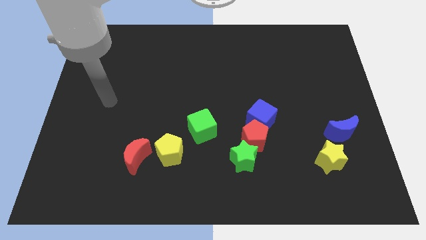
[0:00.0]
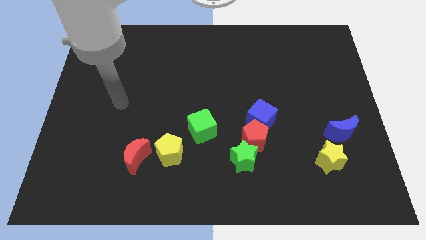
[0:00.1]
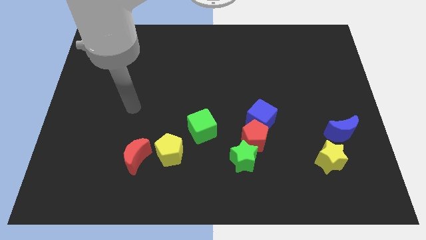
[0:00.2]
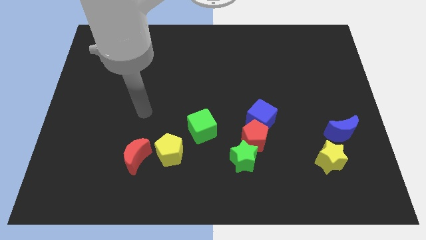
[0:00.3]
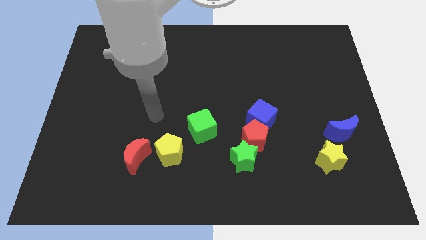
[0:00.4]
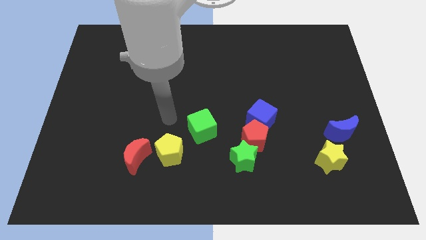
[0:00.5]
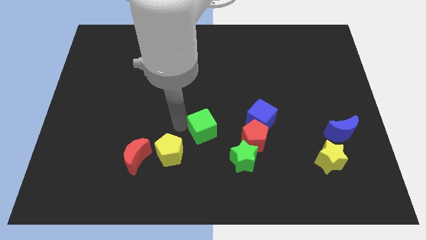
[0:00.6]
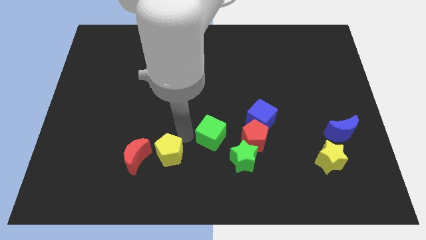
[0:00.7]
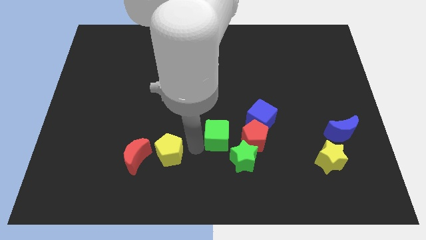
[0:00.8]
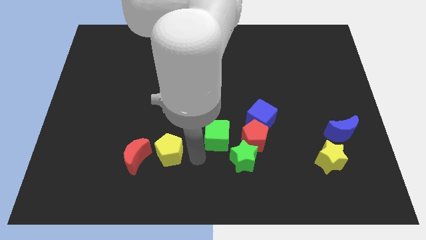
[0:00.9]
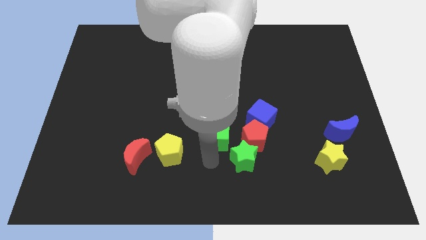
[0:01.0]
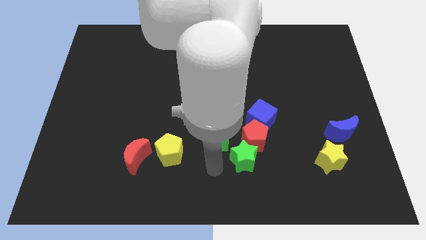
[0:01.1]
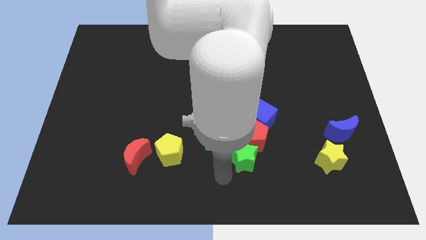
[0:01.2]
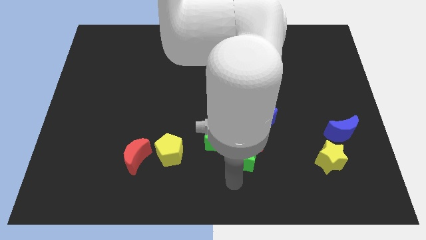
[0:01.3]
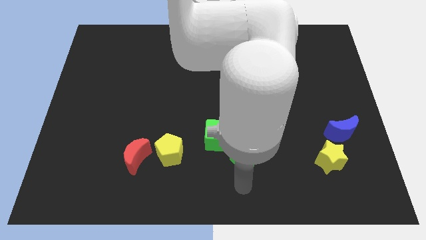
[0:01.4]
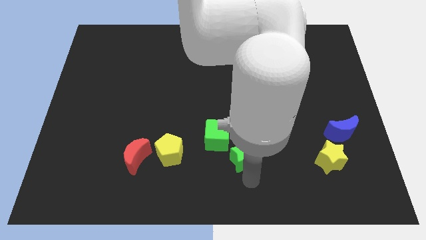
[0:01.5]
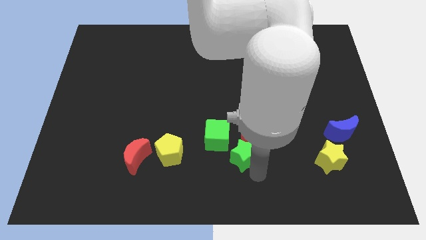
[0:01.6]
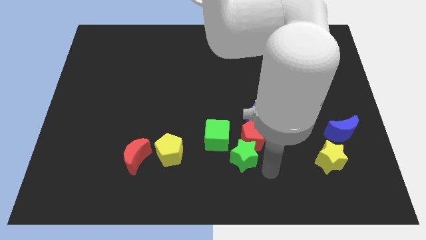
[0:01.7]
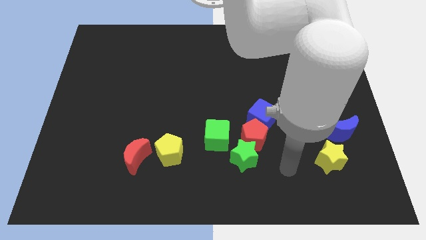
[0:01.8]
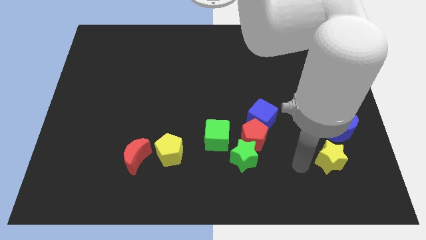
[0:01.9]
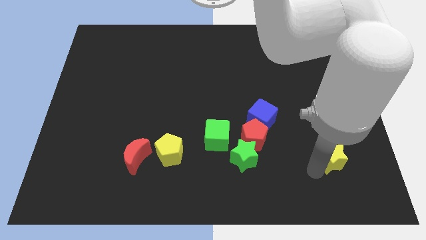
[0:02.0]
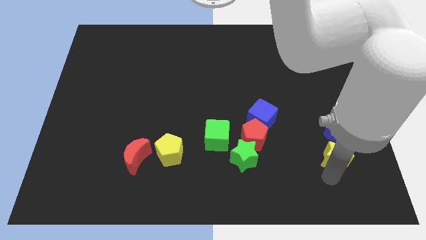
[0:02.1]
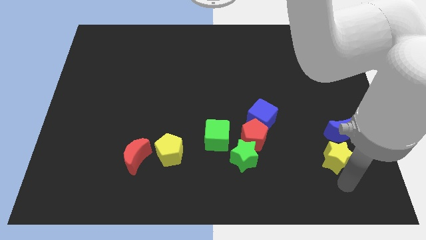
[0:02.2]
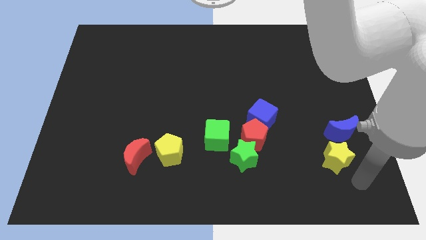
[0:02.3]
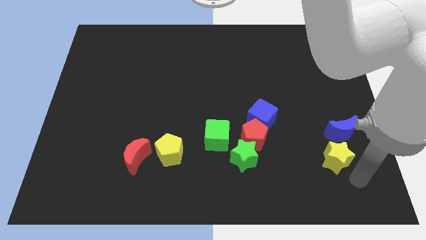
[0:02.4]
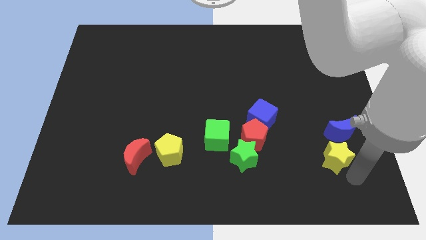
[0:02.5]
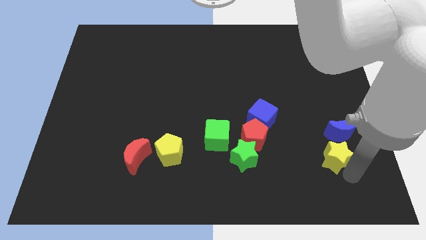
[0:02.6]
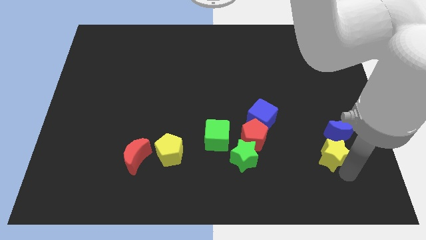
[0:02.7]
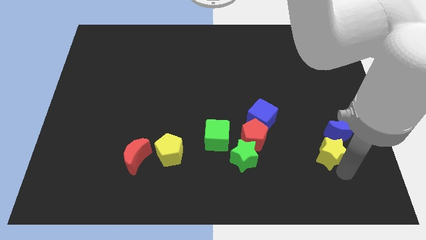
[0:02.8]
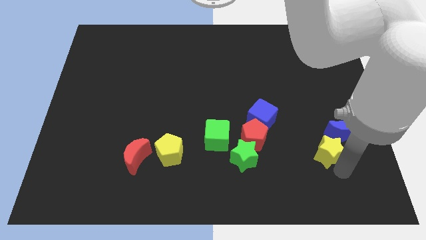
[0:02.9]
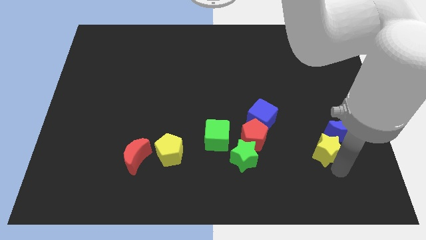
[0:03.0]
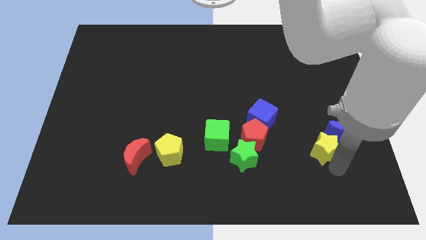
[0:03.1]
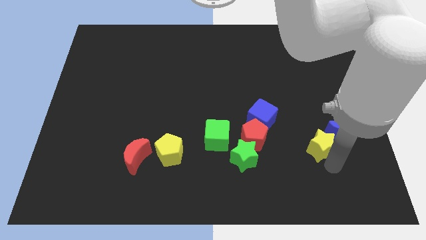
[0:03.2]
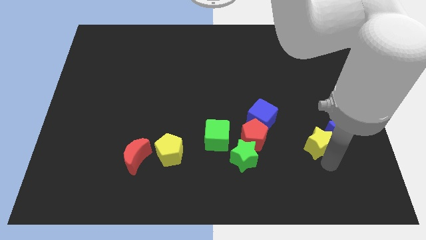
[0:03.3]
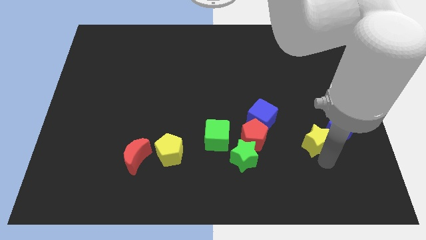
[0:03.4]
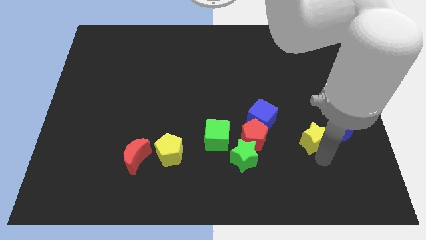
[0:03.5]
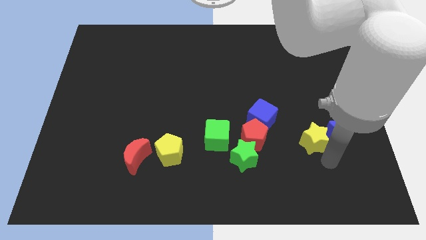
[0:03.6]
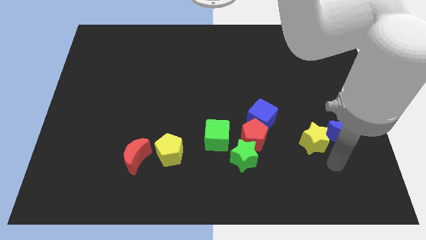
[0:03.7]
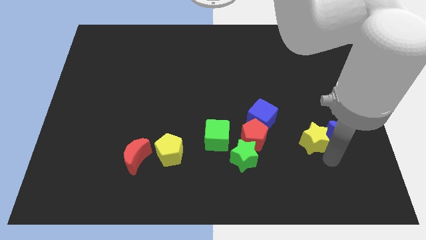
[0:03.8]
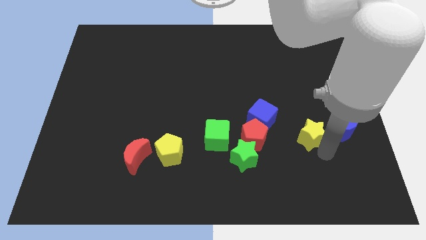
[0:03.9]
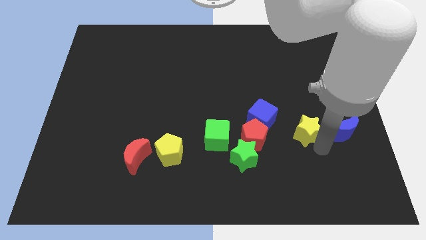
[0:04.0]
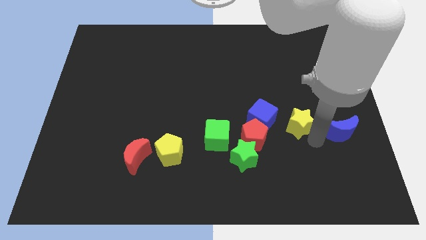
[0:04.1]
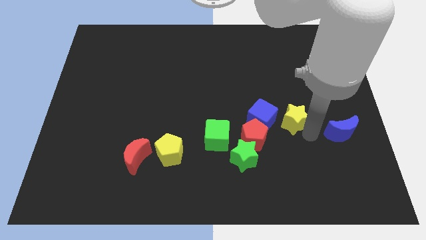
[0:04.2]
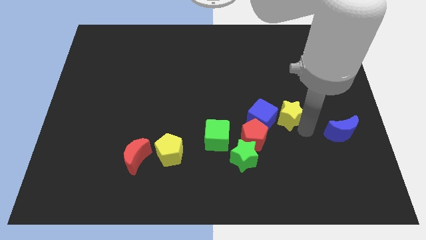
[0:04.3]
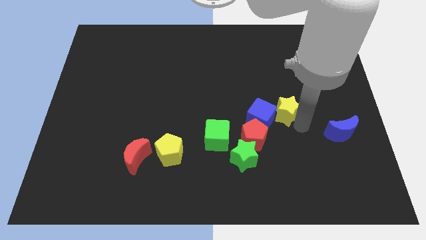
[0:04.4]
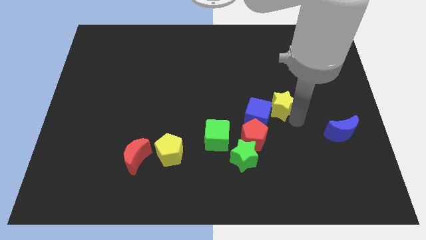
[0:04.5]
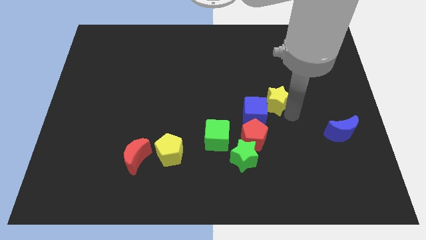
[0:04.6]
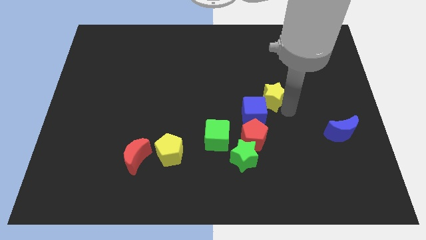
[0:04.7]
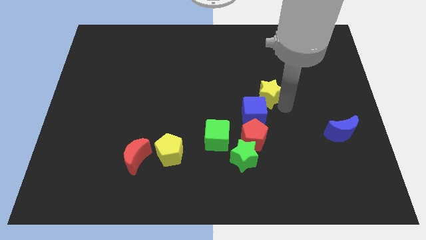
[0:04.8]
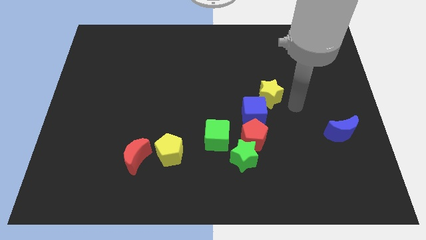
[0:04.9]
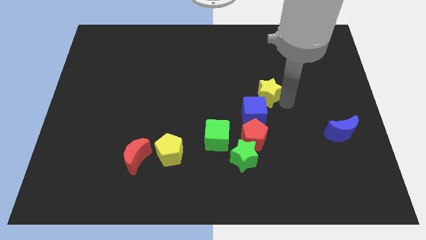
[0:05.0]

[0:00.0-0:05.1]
move the yellow star diagonally upwards and to the left

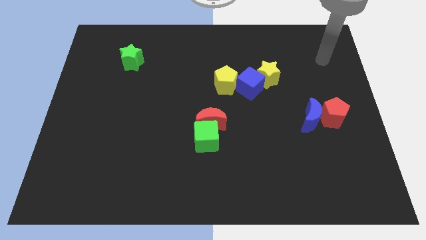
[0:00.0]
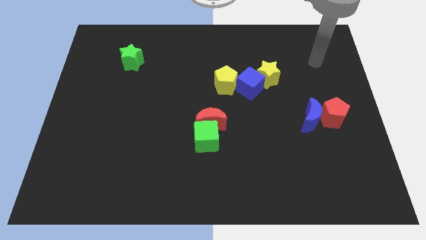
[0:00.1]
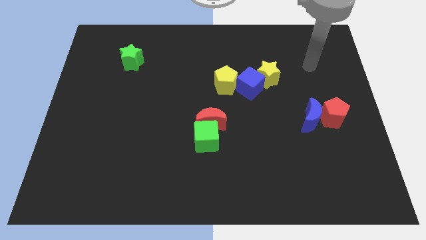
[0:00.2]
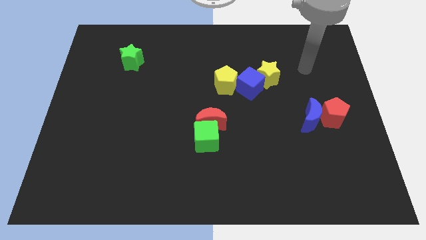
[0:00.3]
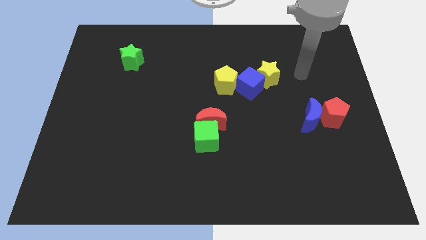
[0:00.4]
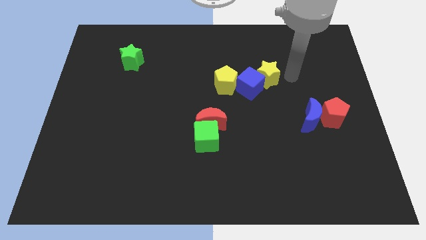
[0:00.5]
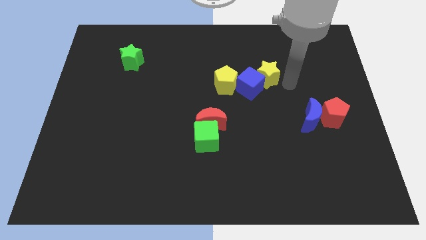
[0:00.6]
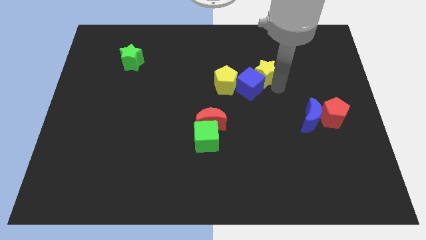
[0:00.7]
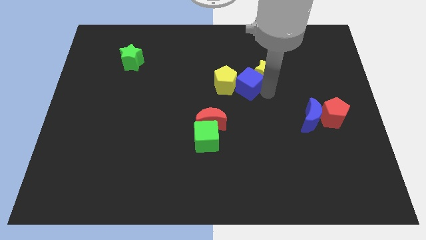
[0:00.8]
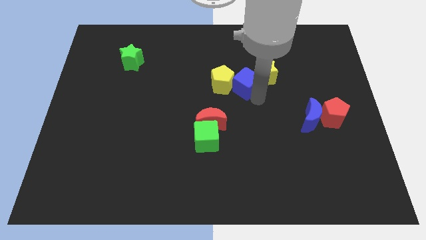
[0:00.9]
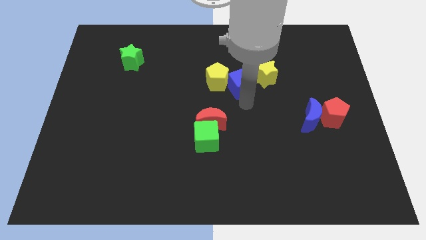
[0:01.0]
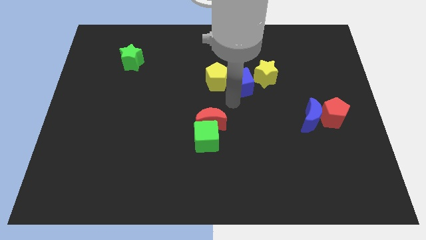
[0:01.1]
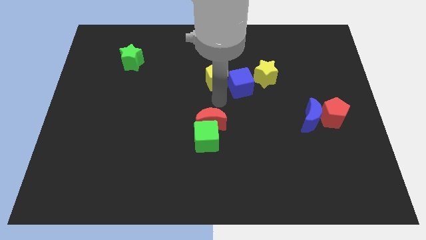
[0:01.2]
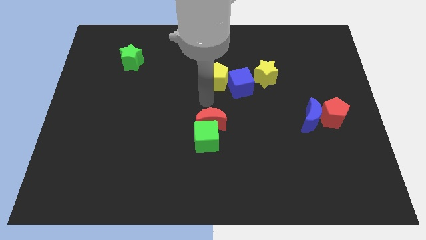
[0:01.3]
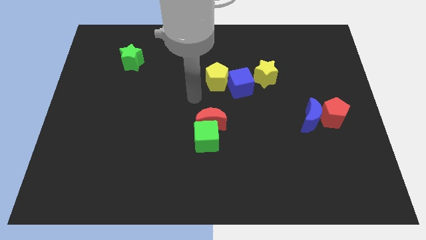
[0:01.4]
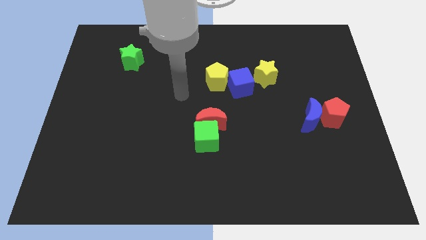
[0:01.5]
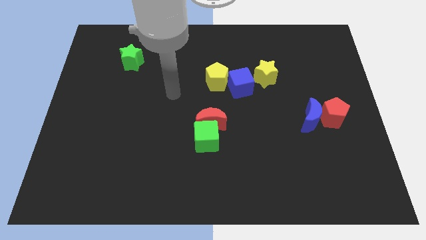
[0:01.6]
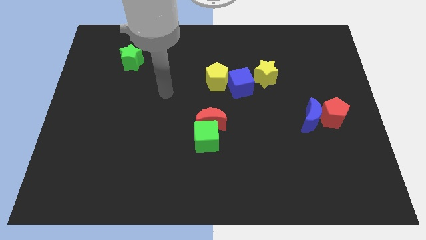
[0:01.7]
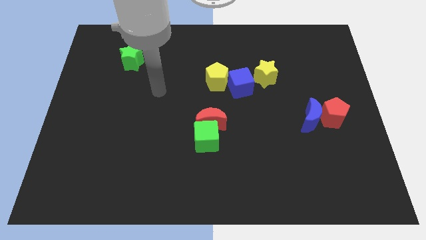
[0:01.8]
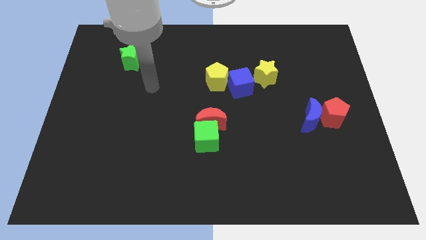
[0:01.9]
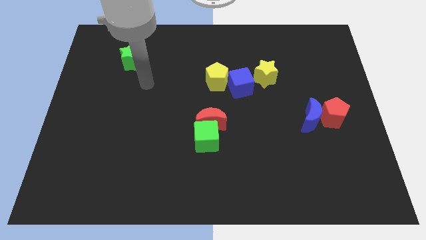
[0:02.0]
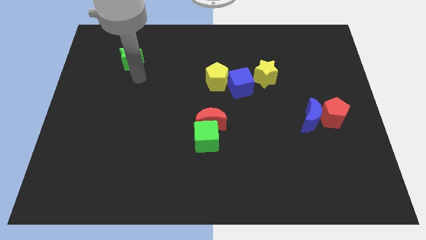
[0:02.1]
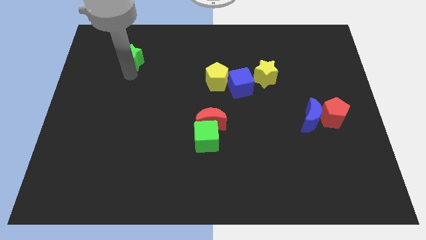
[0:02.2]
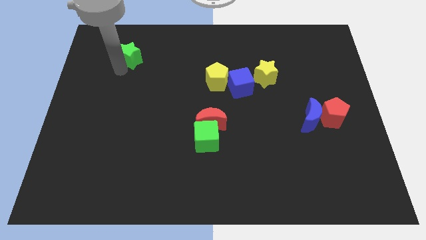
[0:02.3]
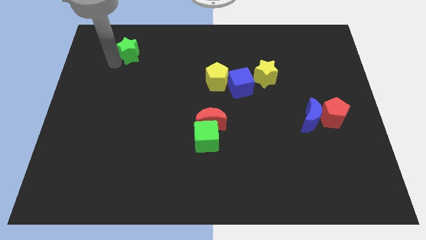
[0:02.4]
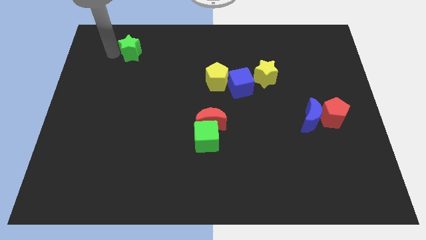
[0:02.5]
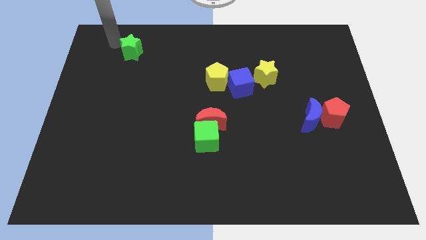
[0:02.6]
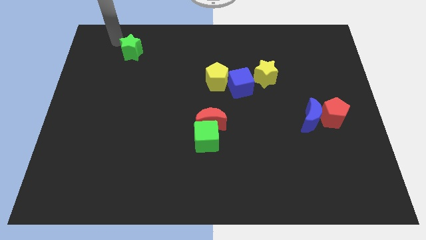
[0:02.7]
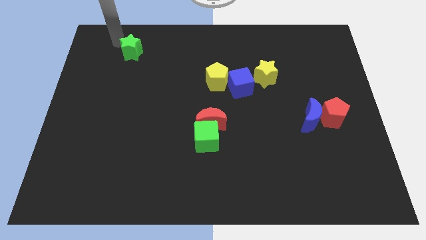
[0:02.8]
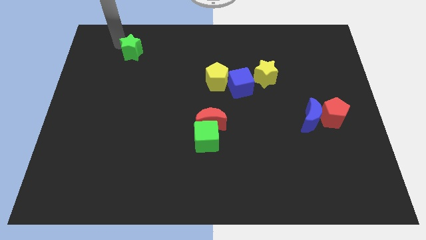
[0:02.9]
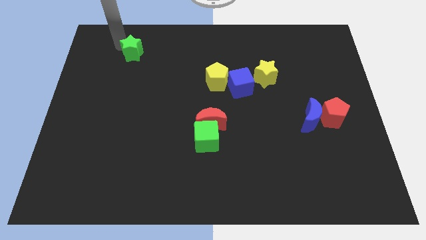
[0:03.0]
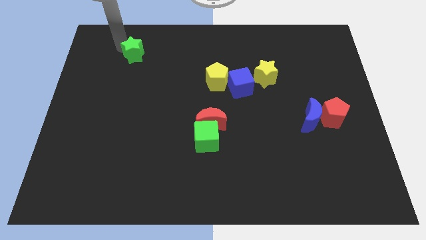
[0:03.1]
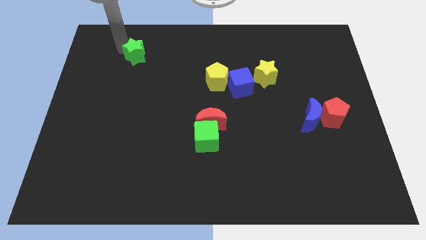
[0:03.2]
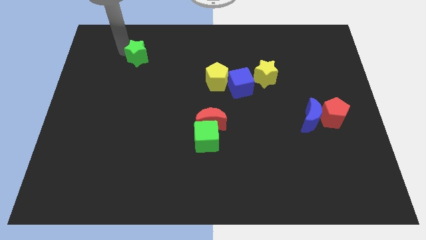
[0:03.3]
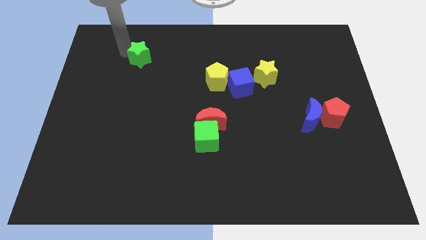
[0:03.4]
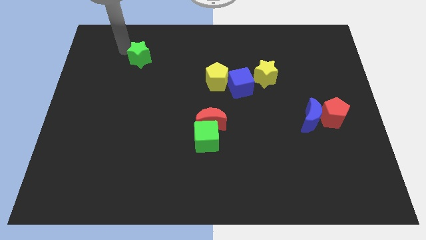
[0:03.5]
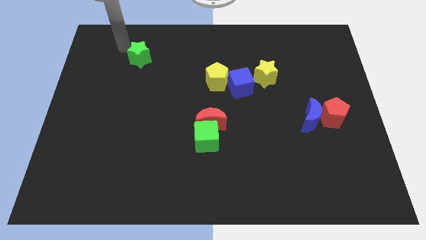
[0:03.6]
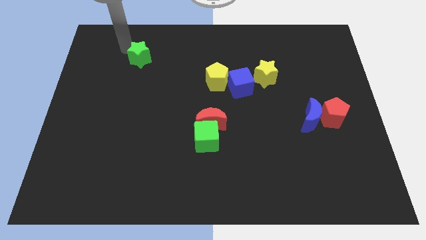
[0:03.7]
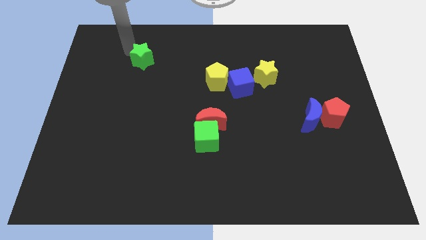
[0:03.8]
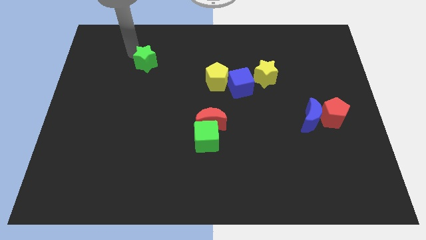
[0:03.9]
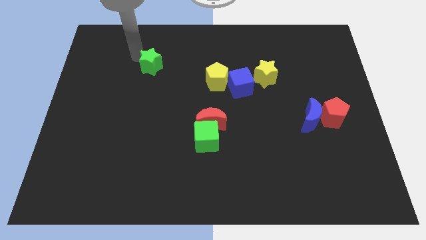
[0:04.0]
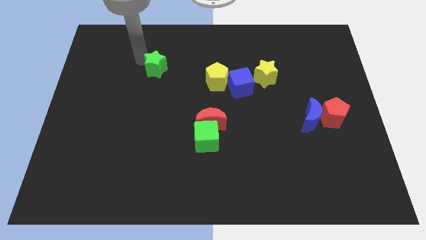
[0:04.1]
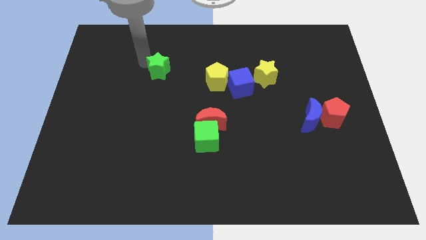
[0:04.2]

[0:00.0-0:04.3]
slide the green star a little bit right
